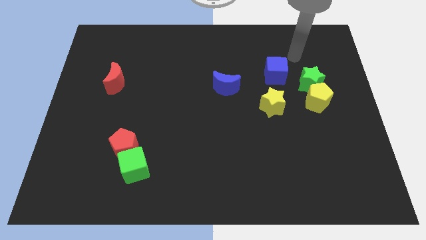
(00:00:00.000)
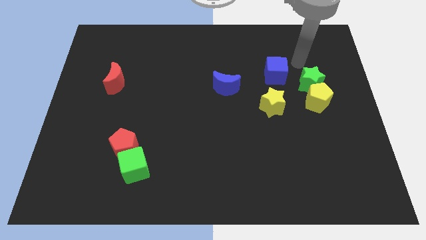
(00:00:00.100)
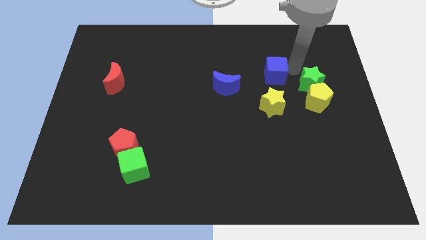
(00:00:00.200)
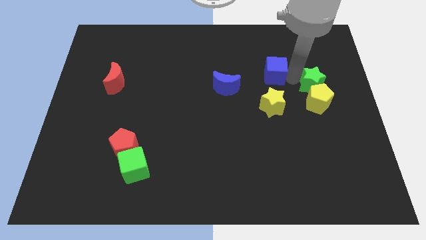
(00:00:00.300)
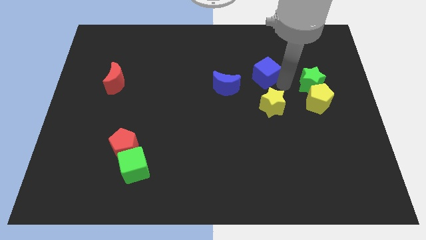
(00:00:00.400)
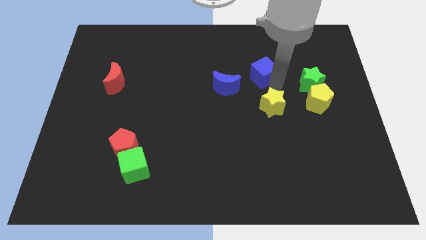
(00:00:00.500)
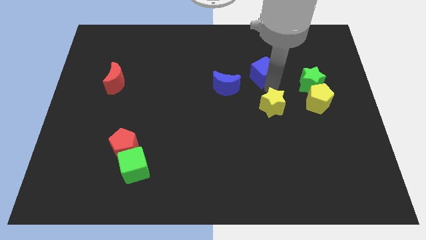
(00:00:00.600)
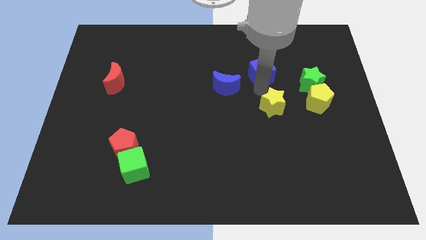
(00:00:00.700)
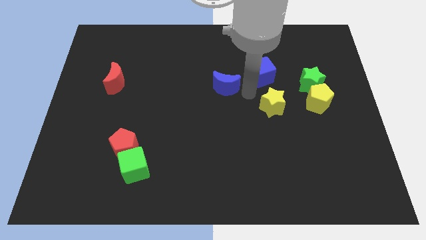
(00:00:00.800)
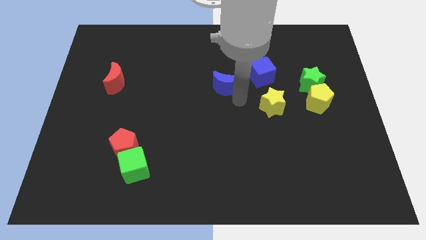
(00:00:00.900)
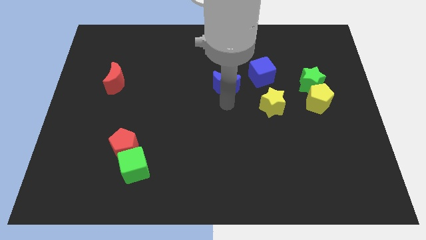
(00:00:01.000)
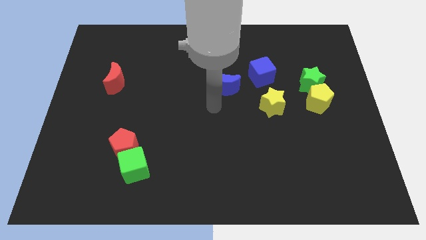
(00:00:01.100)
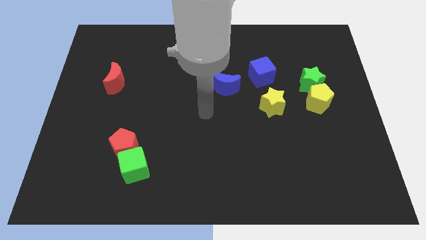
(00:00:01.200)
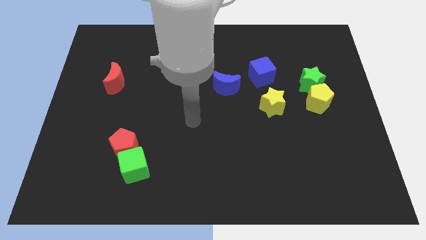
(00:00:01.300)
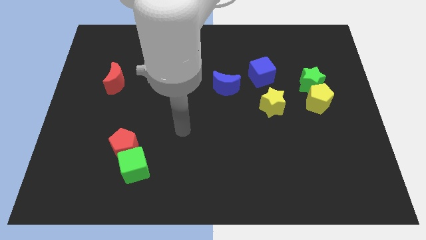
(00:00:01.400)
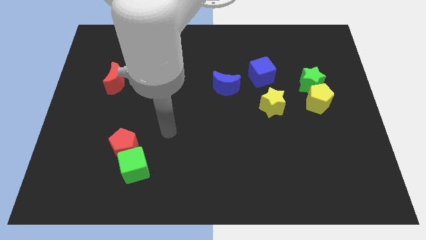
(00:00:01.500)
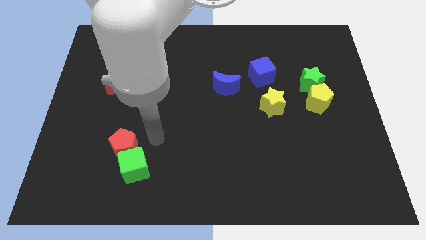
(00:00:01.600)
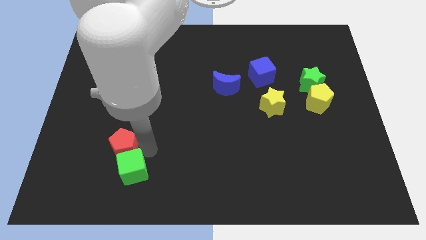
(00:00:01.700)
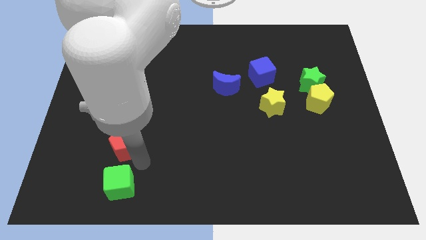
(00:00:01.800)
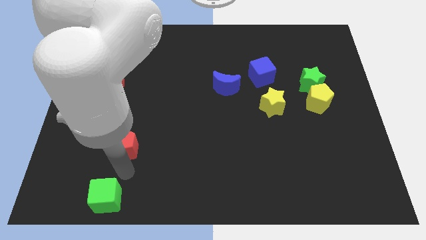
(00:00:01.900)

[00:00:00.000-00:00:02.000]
pull the red pentagon apart from the green cube

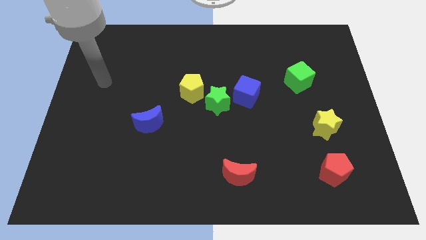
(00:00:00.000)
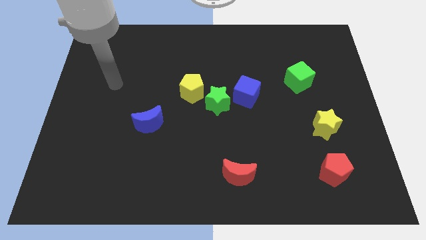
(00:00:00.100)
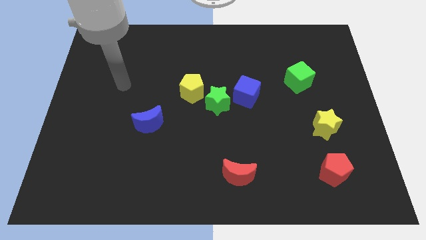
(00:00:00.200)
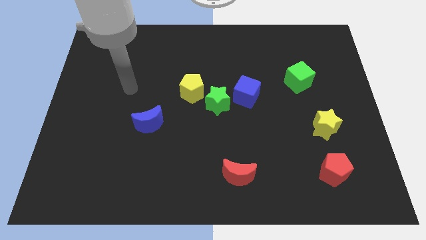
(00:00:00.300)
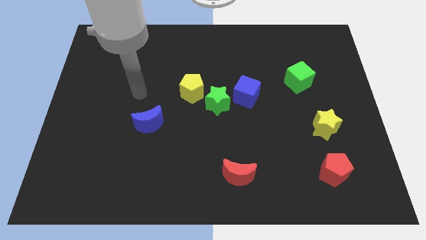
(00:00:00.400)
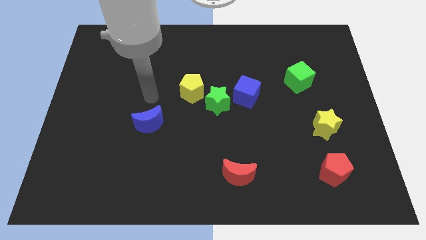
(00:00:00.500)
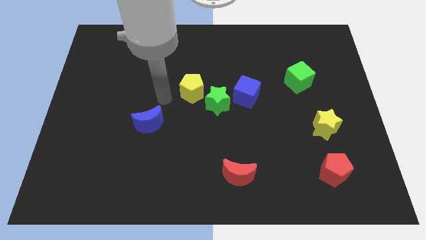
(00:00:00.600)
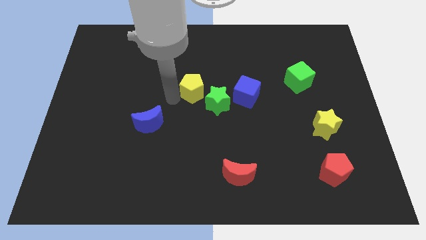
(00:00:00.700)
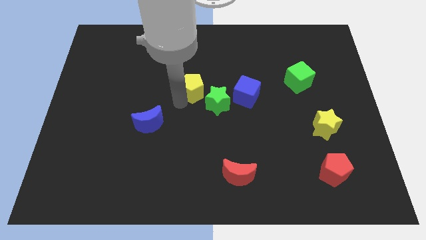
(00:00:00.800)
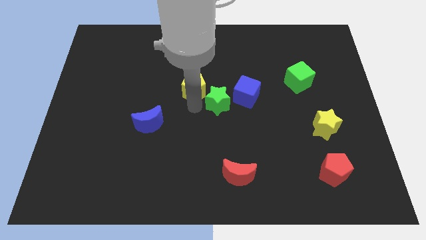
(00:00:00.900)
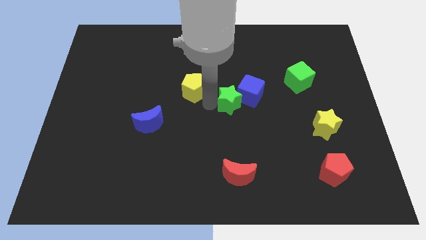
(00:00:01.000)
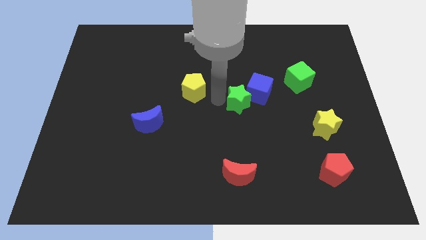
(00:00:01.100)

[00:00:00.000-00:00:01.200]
separate the yellow pentagon from the green star

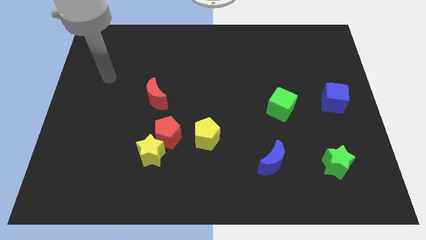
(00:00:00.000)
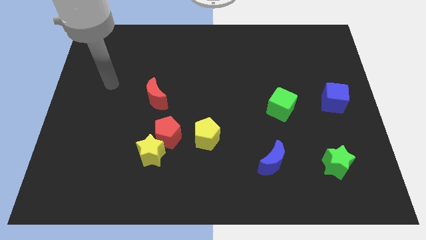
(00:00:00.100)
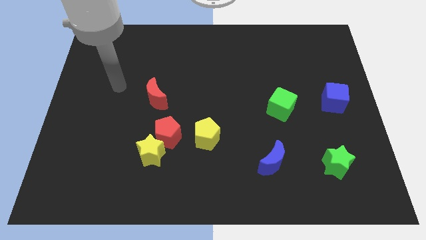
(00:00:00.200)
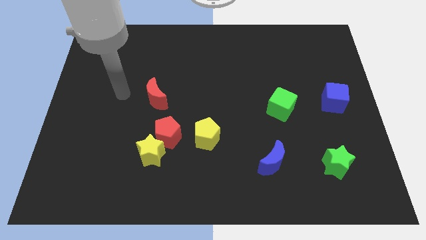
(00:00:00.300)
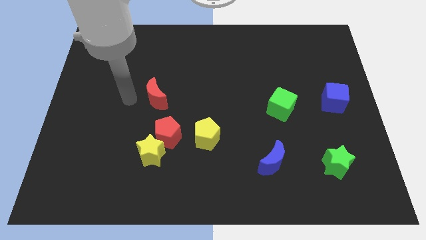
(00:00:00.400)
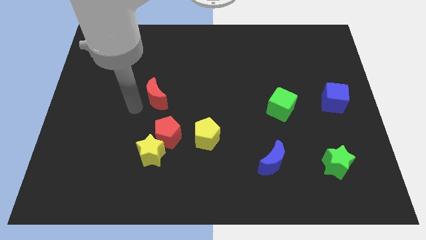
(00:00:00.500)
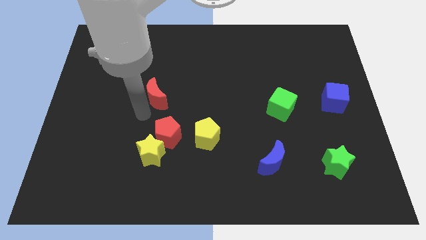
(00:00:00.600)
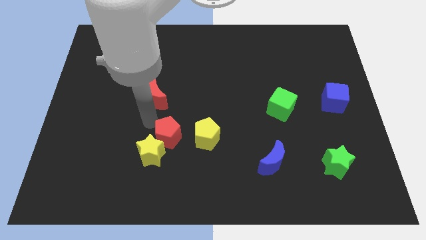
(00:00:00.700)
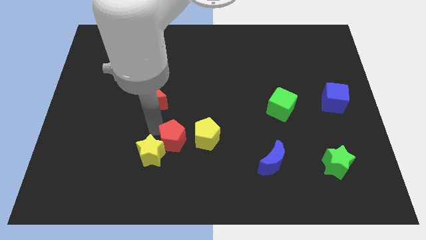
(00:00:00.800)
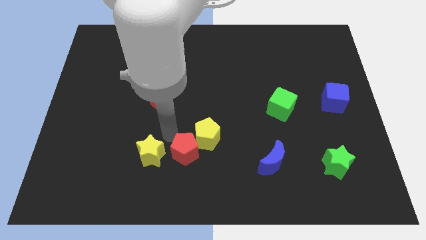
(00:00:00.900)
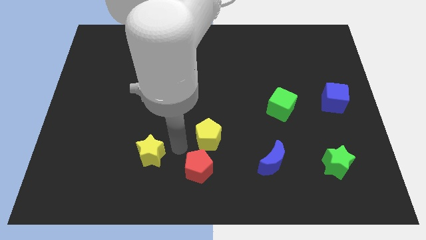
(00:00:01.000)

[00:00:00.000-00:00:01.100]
move the yellow star away from the red pentagon

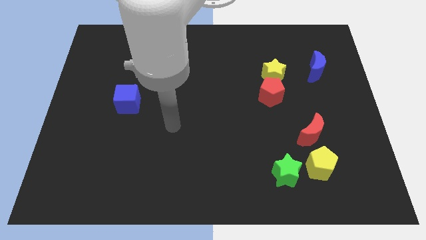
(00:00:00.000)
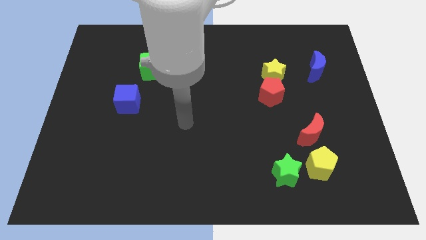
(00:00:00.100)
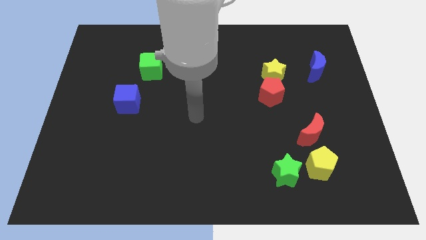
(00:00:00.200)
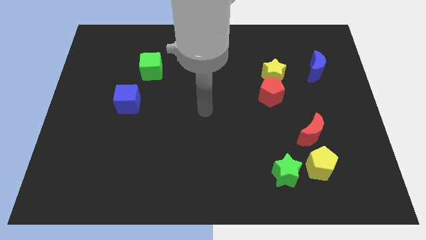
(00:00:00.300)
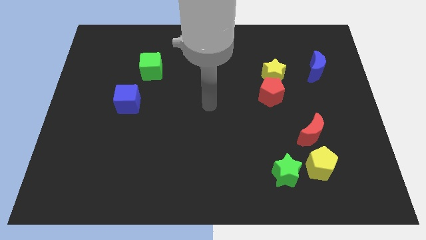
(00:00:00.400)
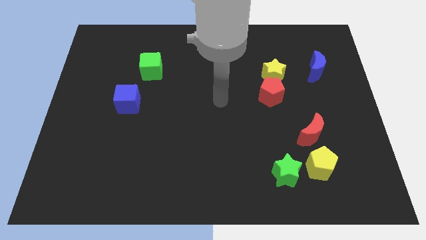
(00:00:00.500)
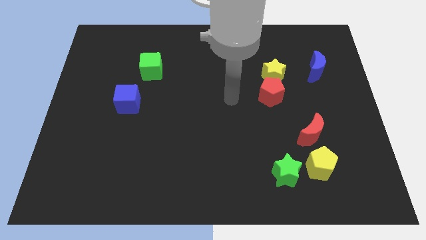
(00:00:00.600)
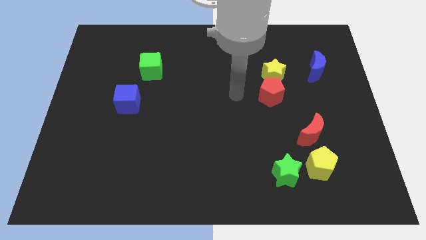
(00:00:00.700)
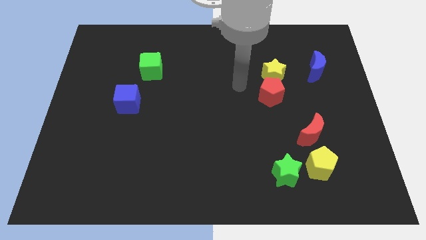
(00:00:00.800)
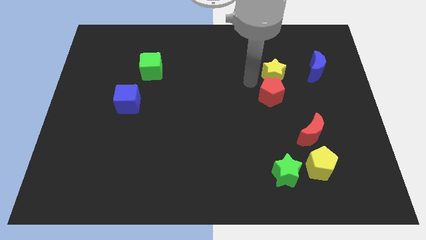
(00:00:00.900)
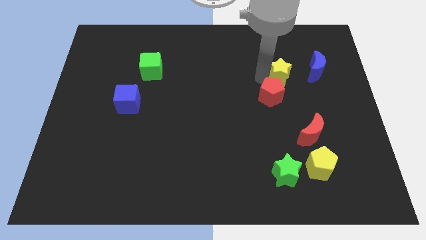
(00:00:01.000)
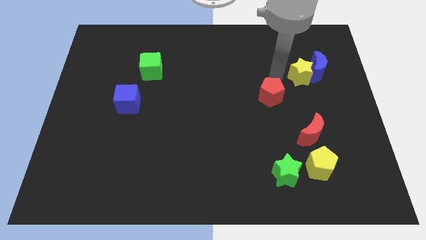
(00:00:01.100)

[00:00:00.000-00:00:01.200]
separate the red pentagon from the yellow star

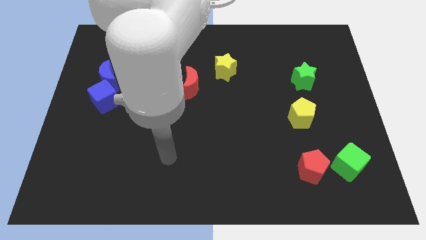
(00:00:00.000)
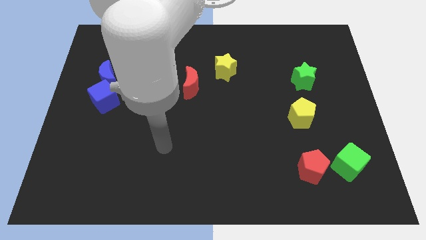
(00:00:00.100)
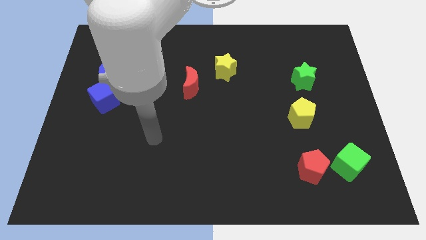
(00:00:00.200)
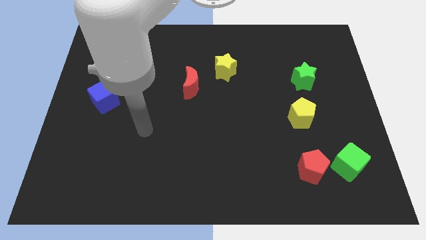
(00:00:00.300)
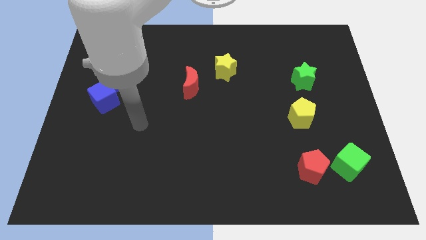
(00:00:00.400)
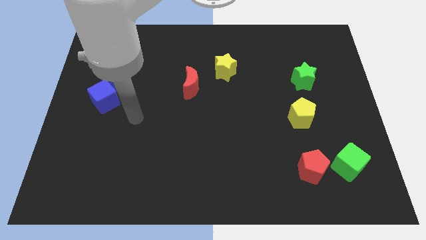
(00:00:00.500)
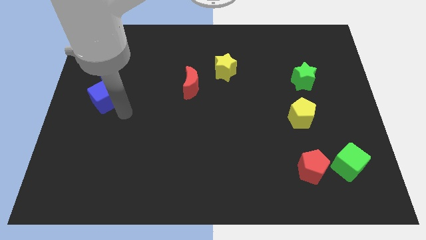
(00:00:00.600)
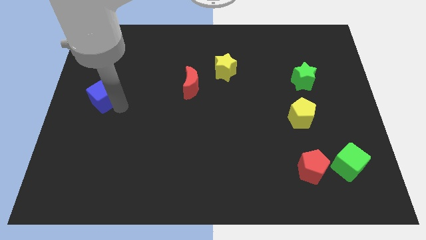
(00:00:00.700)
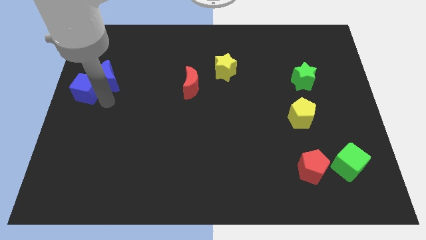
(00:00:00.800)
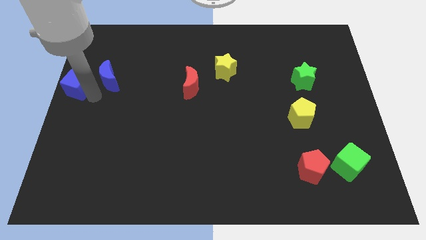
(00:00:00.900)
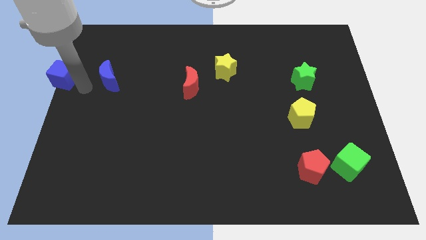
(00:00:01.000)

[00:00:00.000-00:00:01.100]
pull the blue moon apart from the blue cube

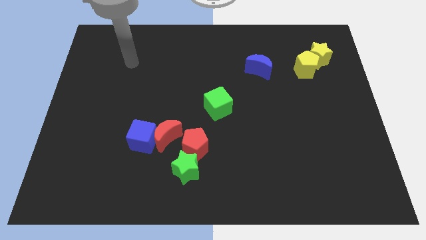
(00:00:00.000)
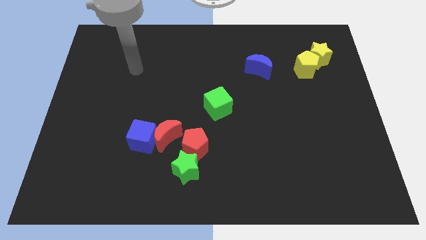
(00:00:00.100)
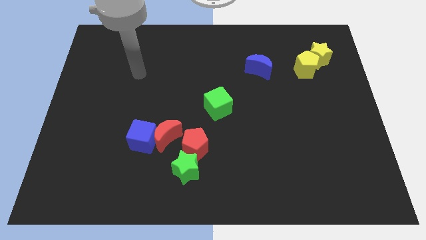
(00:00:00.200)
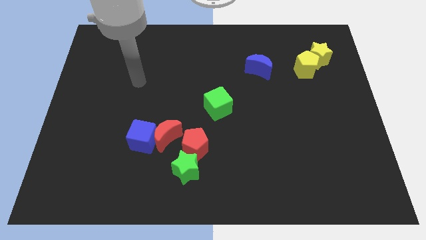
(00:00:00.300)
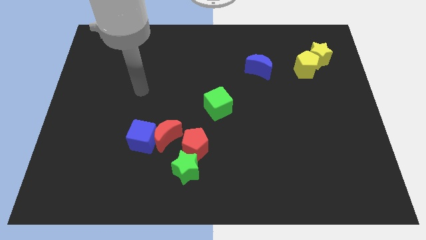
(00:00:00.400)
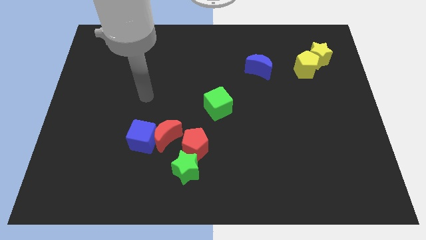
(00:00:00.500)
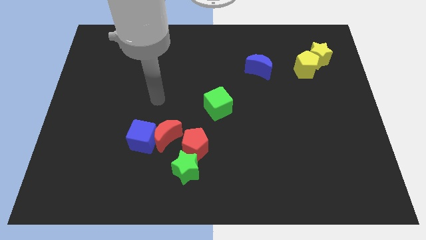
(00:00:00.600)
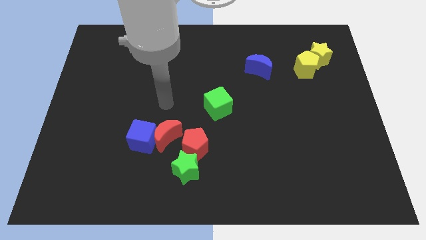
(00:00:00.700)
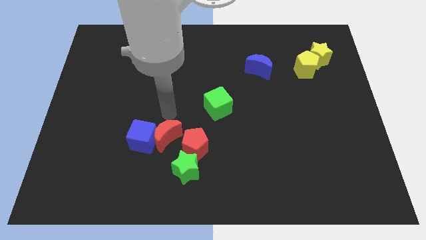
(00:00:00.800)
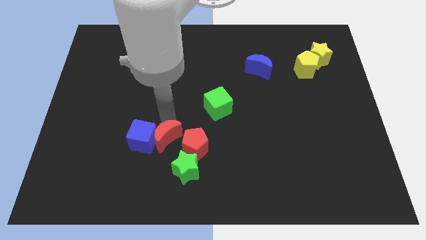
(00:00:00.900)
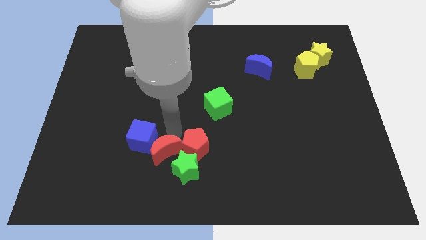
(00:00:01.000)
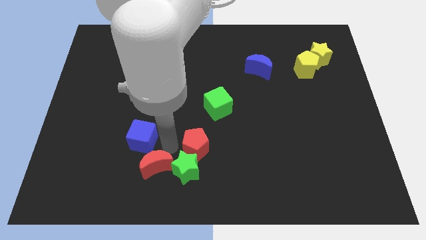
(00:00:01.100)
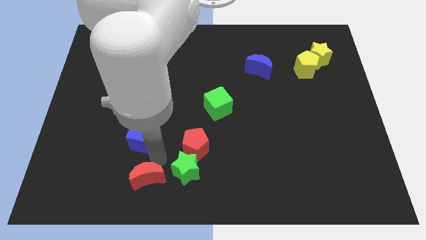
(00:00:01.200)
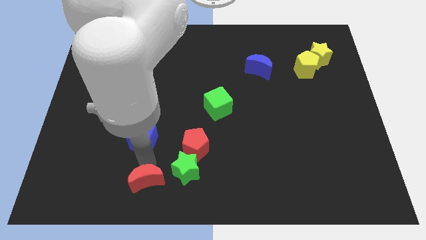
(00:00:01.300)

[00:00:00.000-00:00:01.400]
separate the blue cube from the red moon

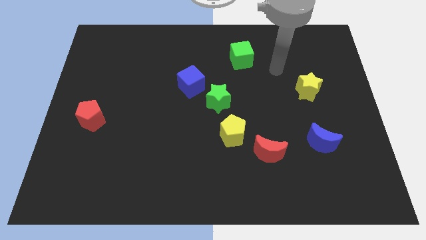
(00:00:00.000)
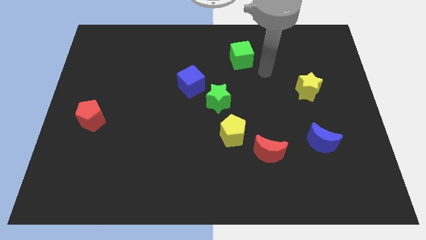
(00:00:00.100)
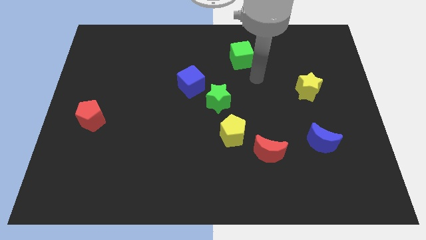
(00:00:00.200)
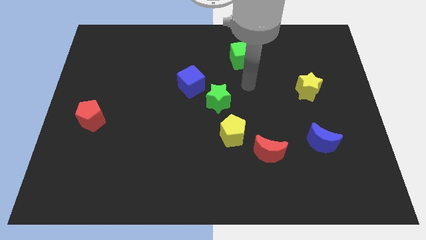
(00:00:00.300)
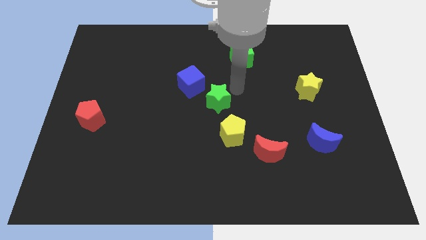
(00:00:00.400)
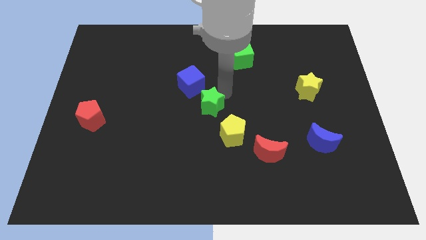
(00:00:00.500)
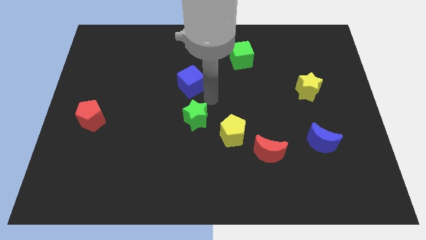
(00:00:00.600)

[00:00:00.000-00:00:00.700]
separate the blue cube from the green star

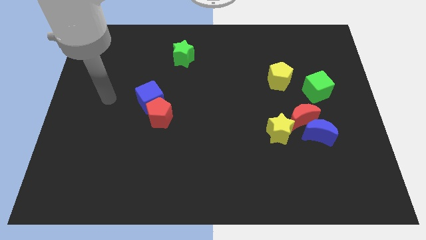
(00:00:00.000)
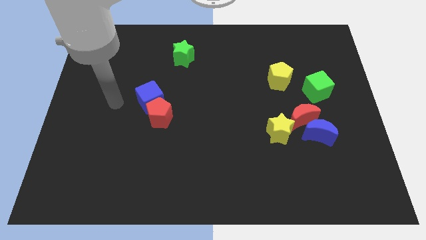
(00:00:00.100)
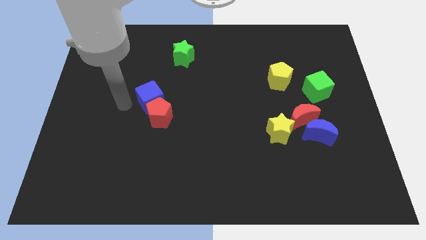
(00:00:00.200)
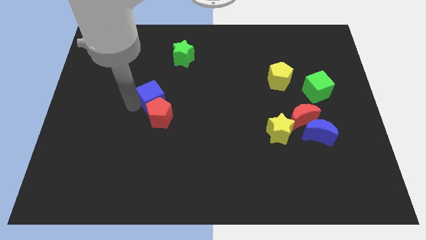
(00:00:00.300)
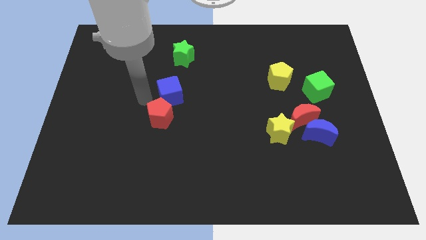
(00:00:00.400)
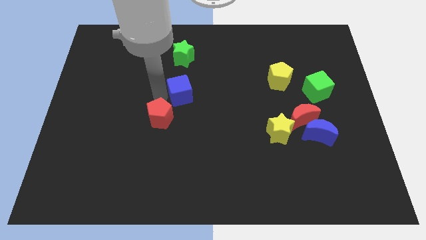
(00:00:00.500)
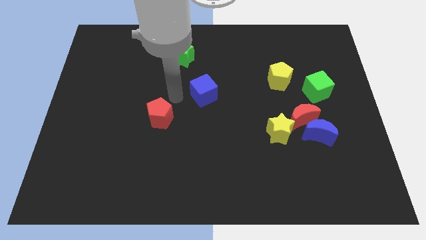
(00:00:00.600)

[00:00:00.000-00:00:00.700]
pull the red pentagon apart from the blue cube
